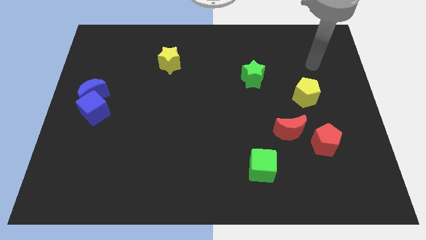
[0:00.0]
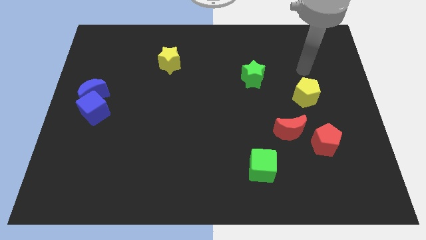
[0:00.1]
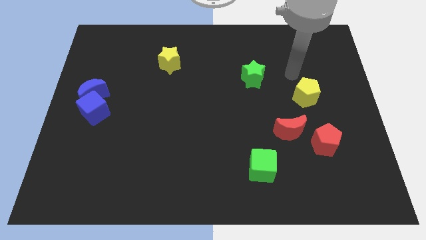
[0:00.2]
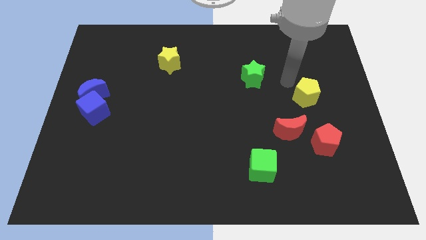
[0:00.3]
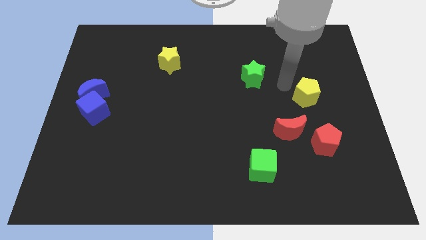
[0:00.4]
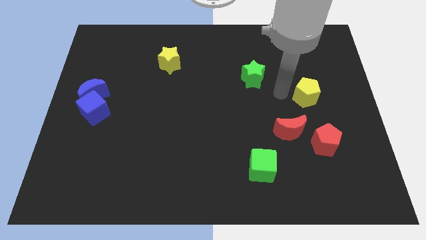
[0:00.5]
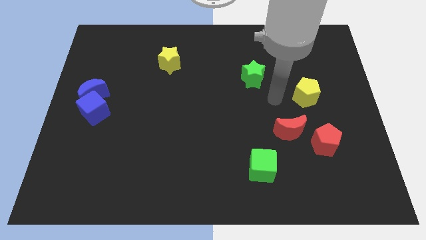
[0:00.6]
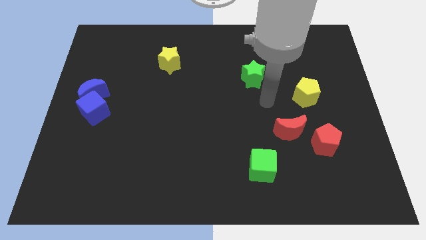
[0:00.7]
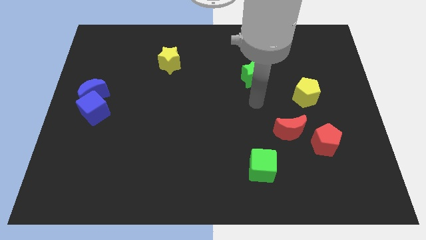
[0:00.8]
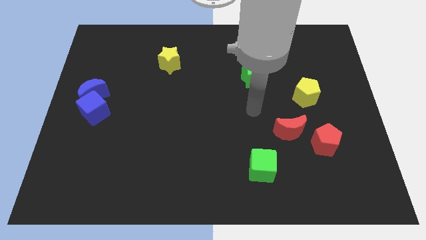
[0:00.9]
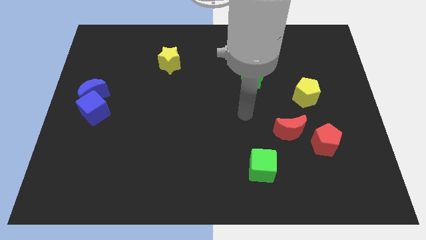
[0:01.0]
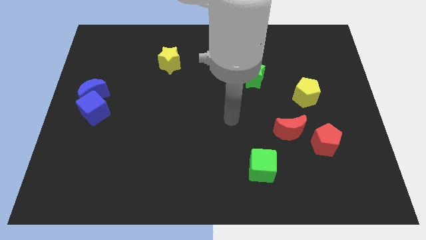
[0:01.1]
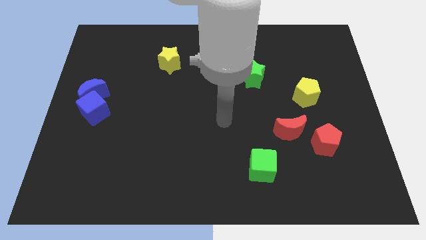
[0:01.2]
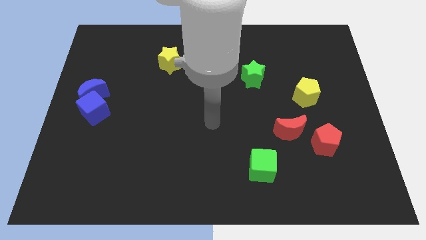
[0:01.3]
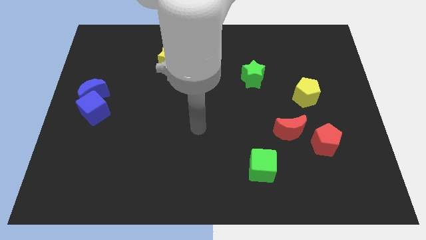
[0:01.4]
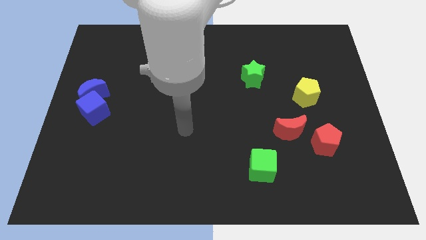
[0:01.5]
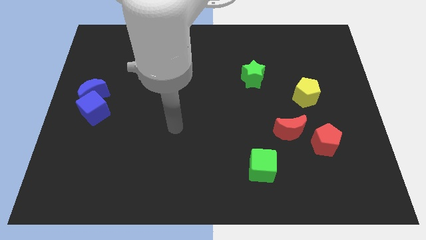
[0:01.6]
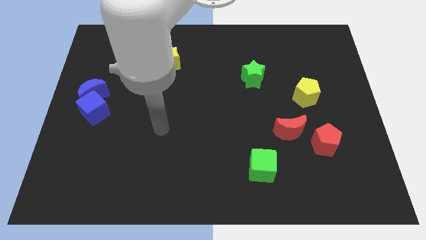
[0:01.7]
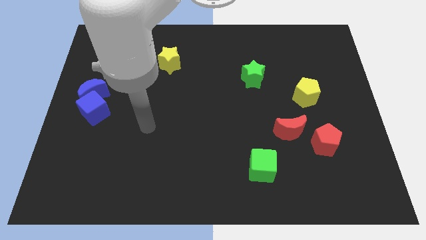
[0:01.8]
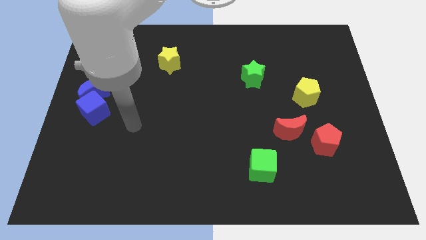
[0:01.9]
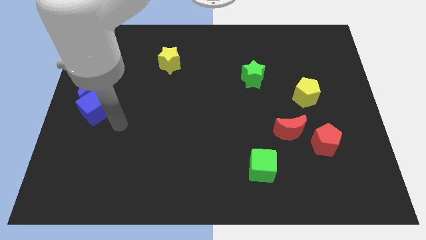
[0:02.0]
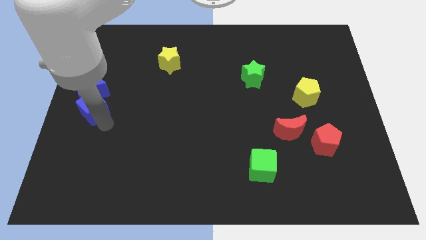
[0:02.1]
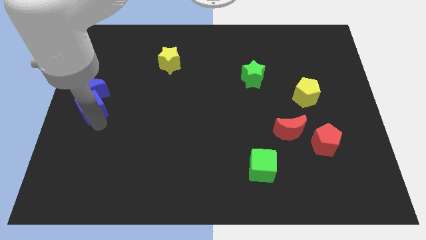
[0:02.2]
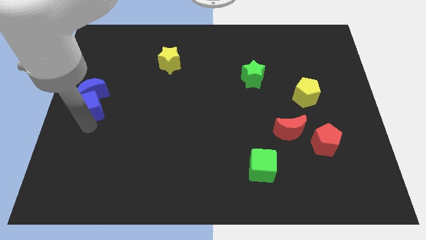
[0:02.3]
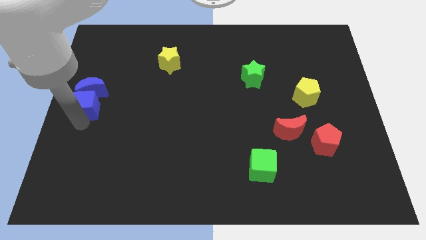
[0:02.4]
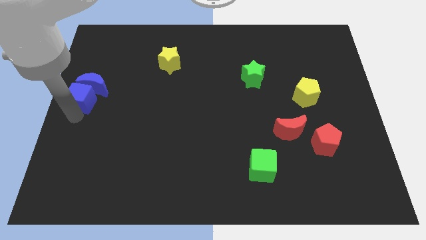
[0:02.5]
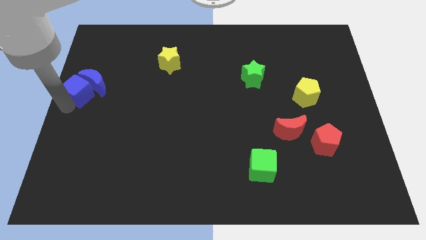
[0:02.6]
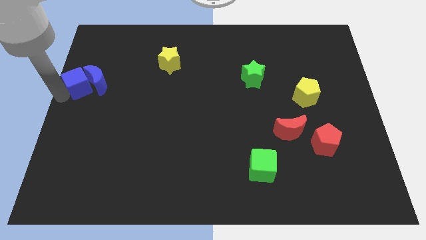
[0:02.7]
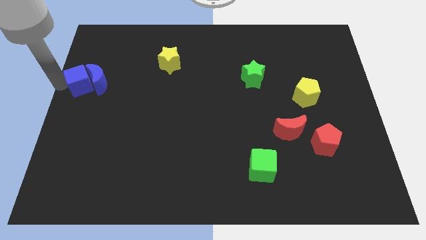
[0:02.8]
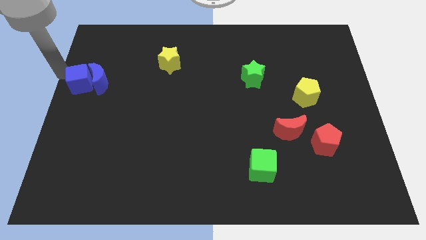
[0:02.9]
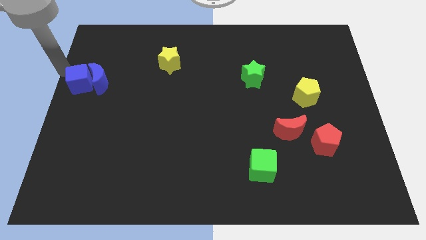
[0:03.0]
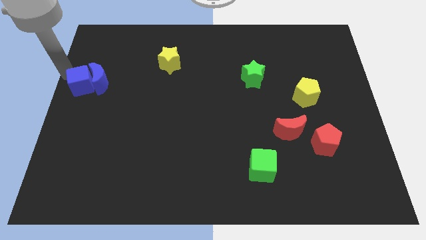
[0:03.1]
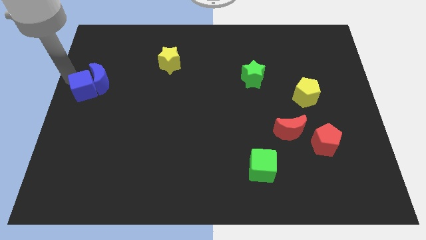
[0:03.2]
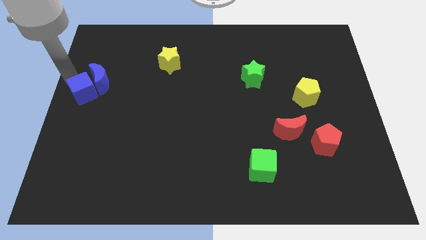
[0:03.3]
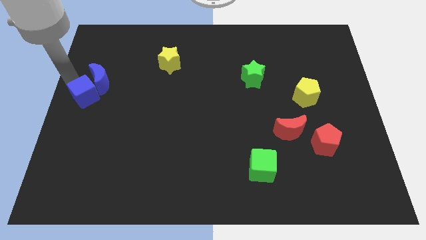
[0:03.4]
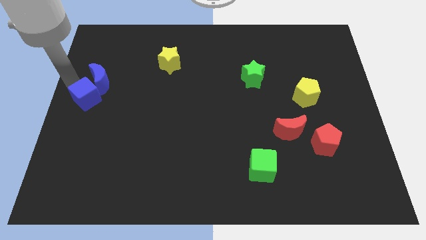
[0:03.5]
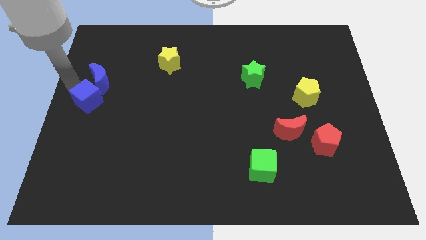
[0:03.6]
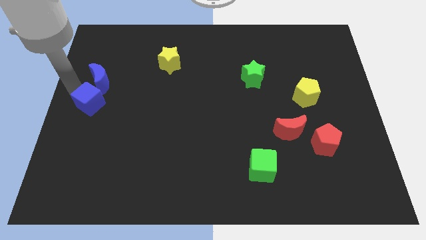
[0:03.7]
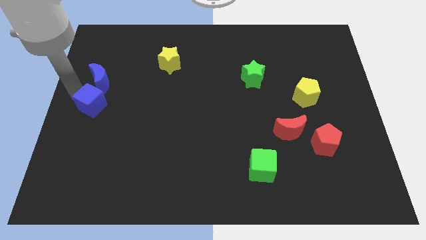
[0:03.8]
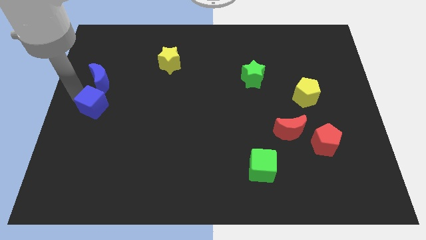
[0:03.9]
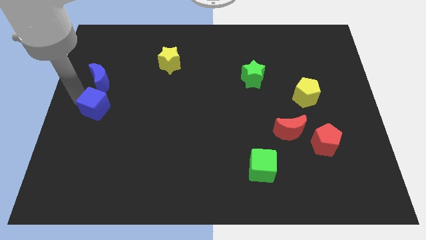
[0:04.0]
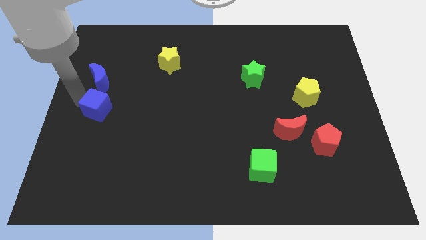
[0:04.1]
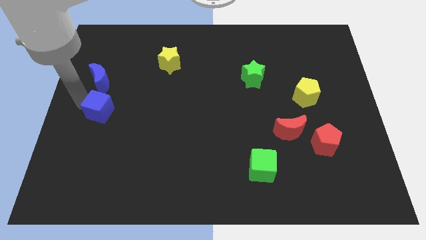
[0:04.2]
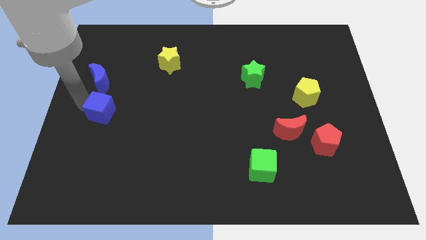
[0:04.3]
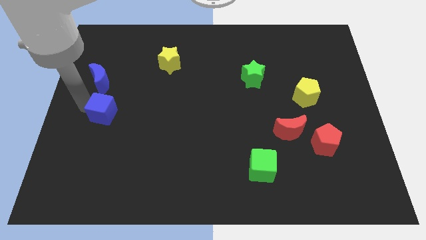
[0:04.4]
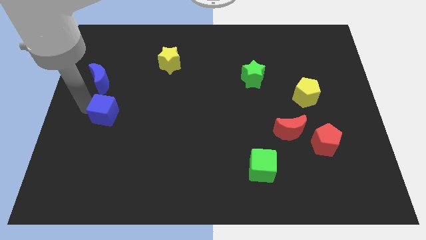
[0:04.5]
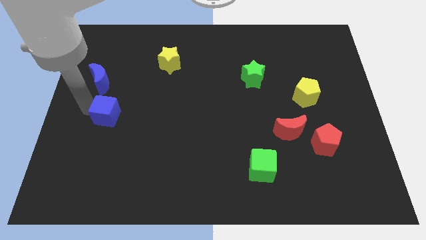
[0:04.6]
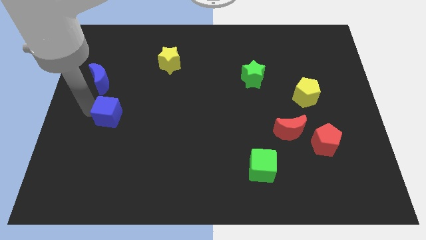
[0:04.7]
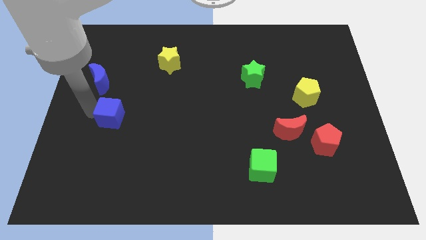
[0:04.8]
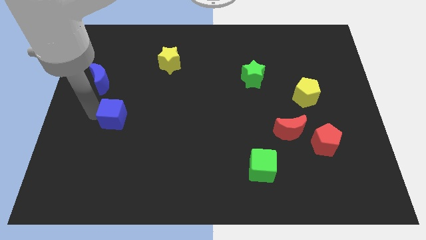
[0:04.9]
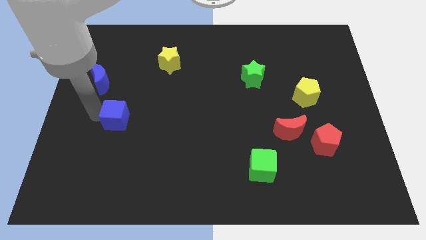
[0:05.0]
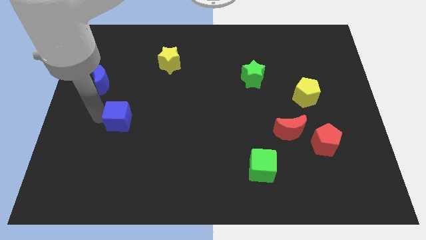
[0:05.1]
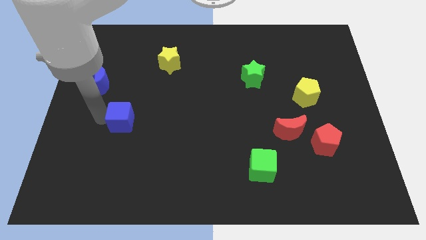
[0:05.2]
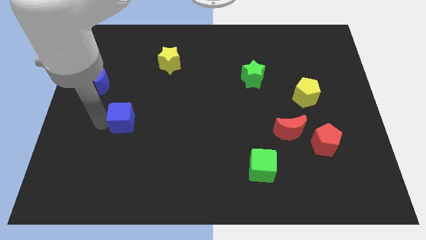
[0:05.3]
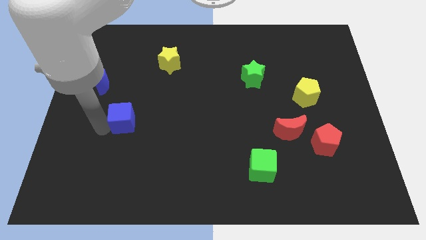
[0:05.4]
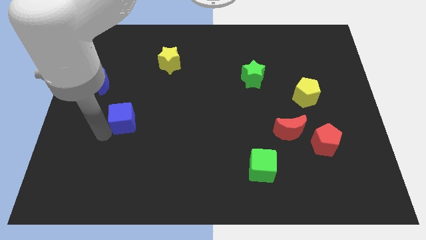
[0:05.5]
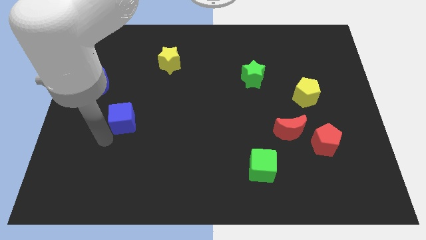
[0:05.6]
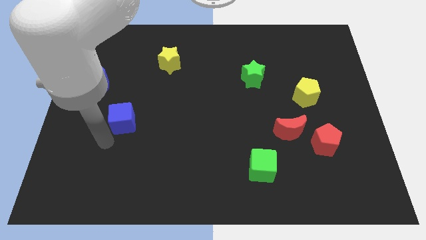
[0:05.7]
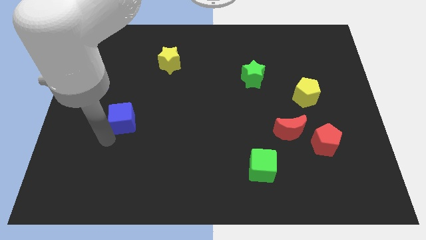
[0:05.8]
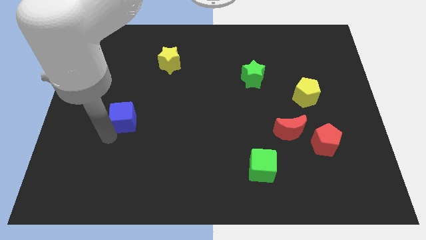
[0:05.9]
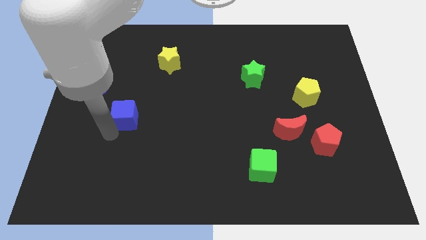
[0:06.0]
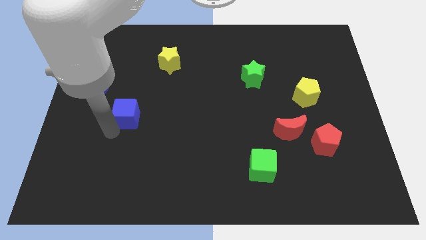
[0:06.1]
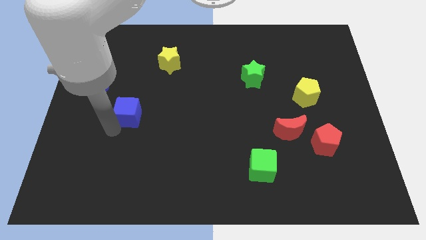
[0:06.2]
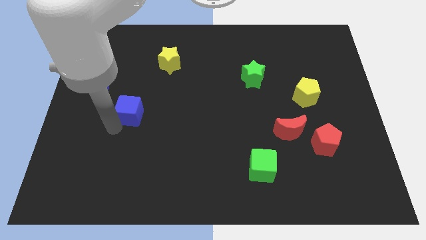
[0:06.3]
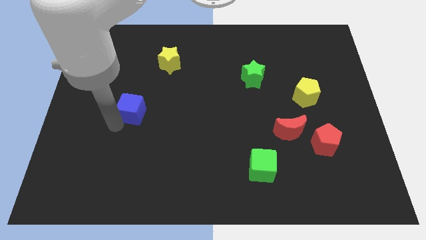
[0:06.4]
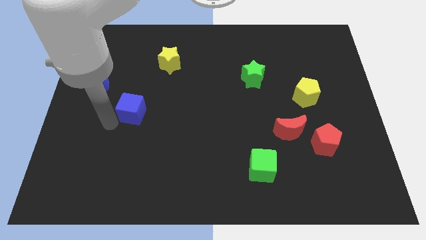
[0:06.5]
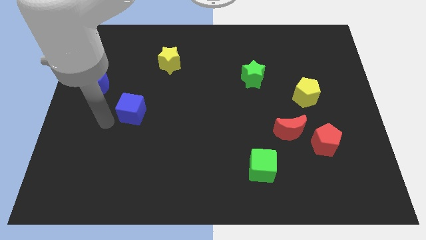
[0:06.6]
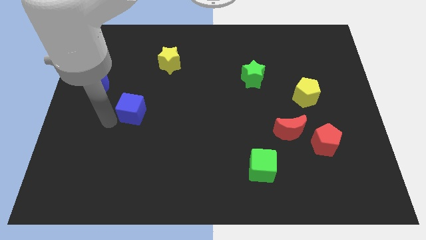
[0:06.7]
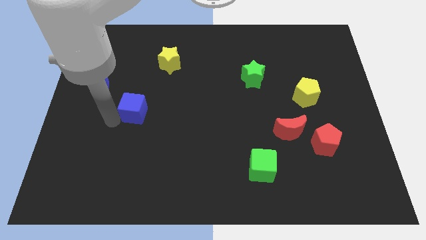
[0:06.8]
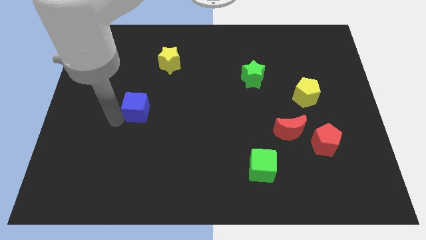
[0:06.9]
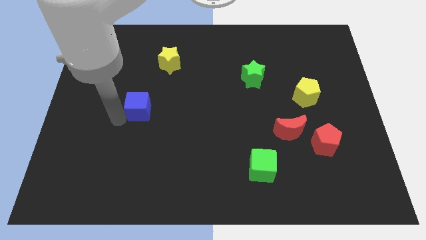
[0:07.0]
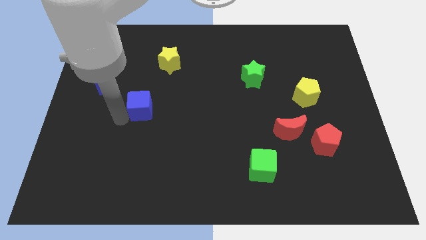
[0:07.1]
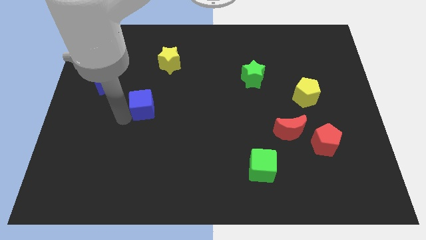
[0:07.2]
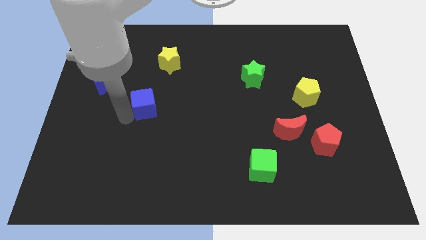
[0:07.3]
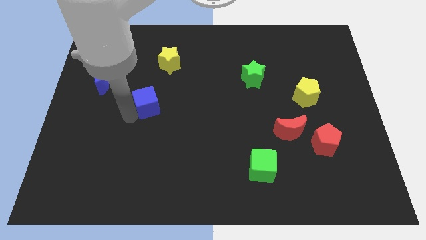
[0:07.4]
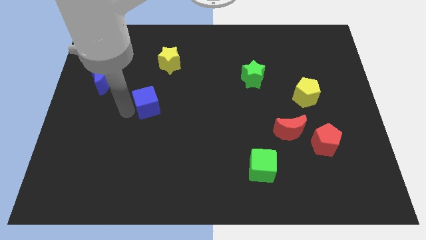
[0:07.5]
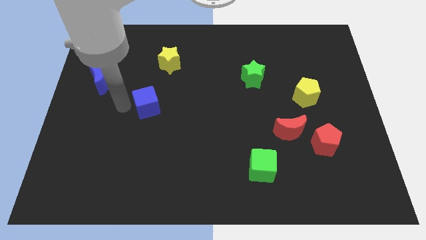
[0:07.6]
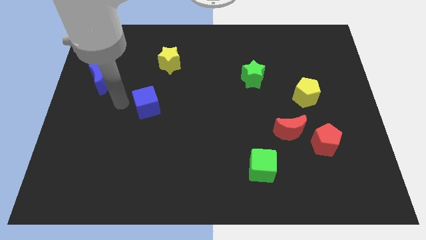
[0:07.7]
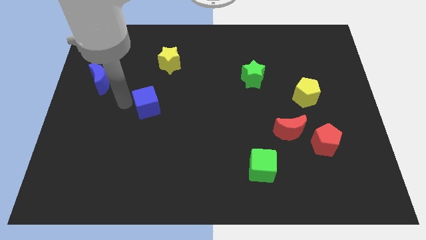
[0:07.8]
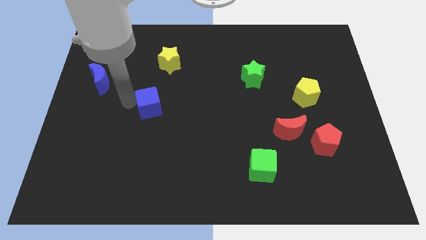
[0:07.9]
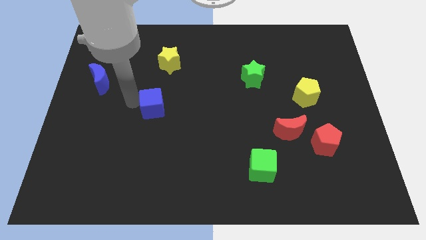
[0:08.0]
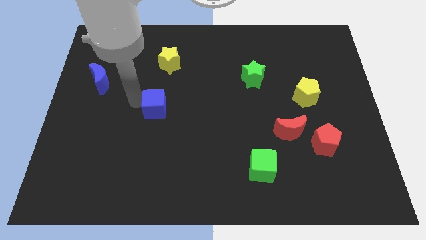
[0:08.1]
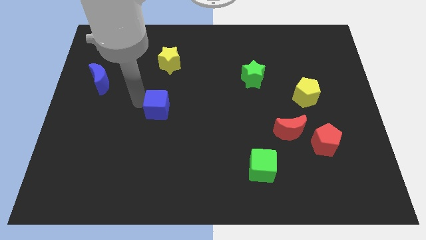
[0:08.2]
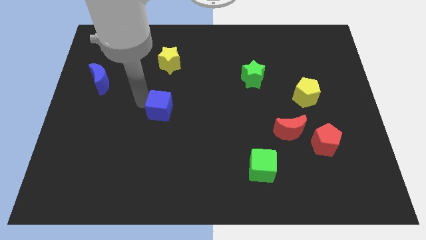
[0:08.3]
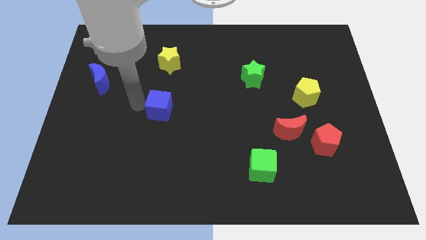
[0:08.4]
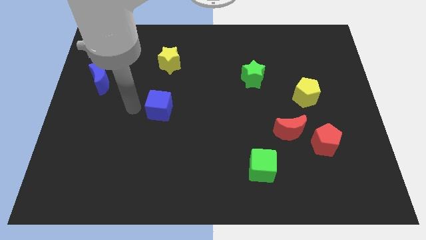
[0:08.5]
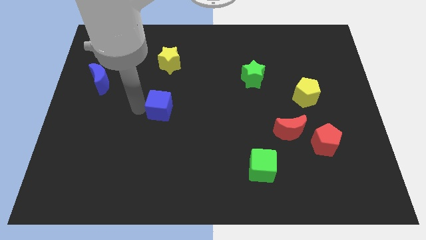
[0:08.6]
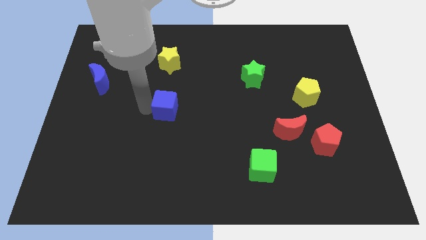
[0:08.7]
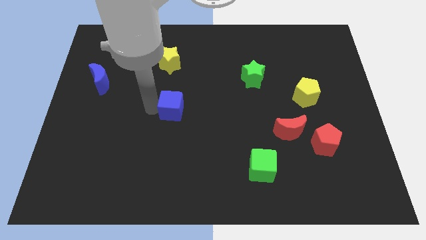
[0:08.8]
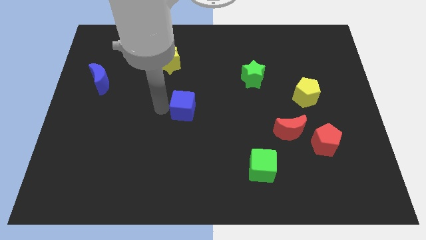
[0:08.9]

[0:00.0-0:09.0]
move the blue cube right
